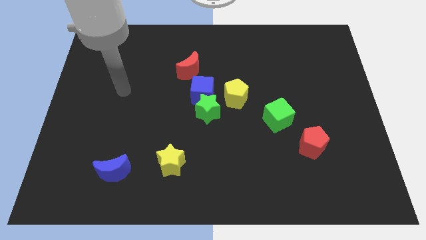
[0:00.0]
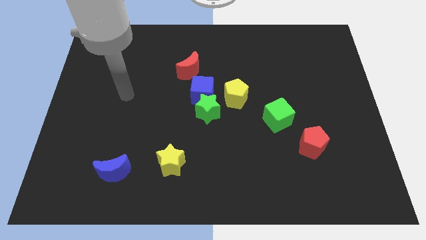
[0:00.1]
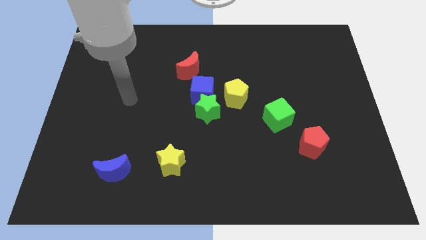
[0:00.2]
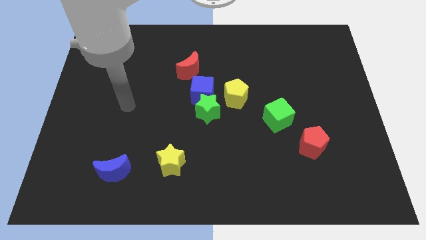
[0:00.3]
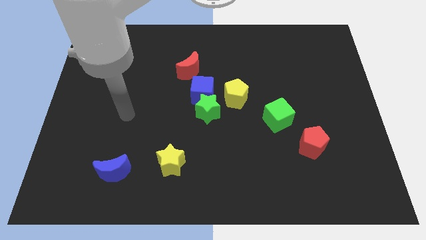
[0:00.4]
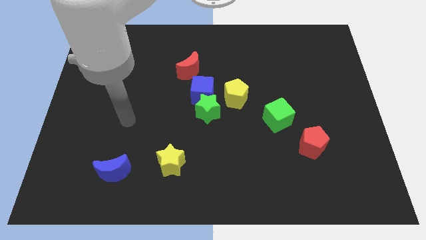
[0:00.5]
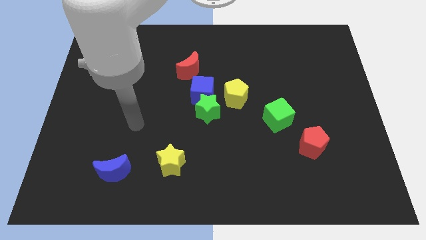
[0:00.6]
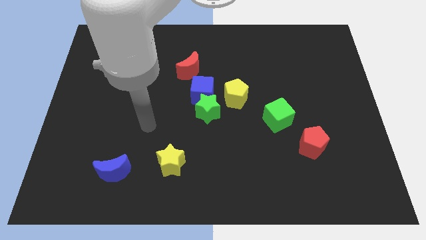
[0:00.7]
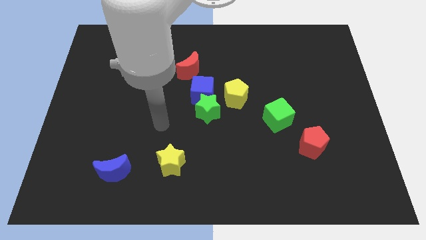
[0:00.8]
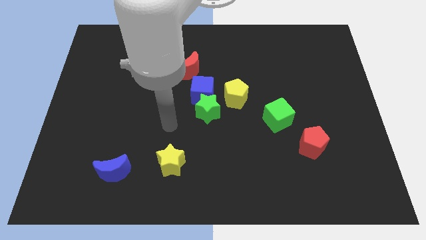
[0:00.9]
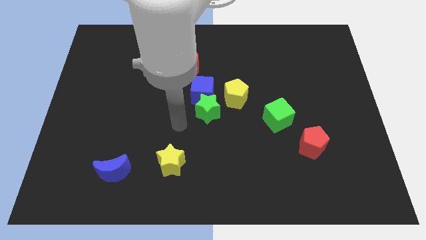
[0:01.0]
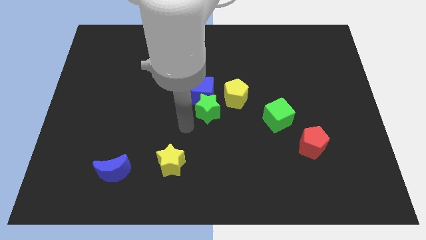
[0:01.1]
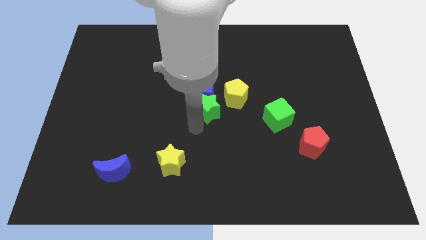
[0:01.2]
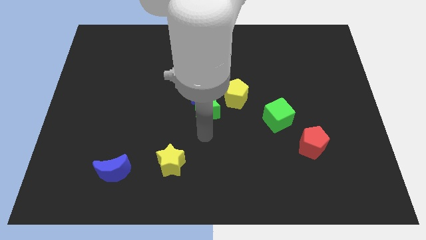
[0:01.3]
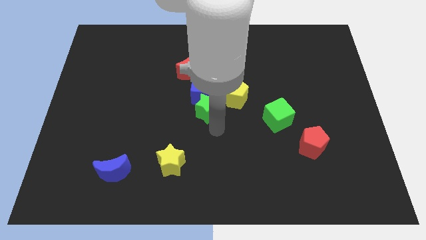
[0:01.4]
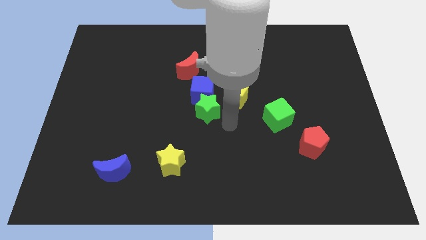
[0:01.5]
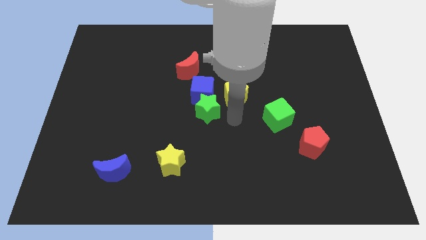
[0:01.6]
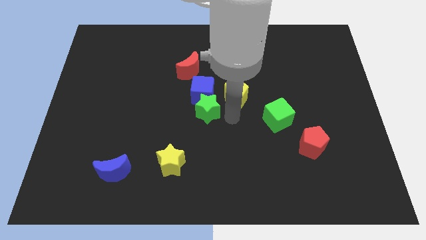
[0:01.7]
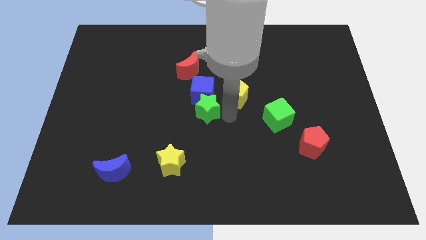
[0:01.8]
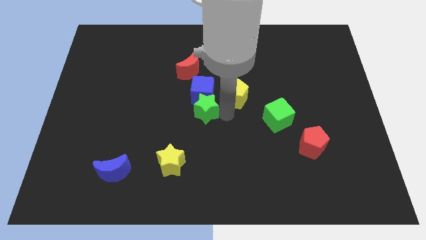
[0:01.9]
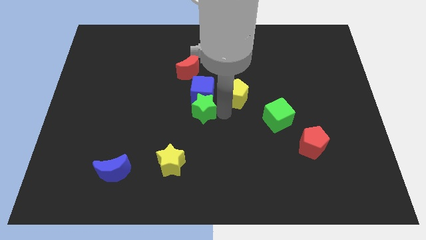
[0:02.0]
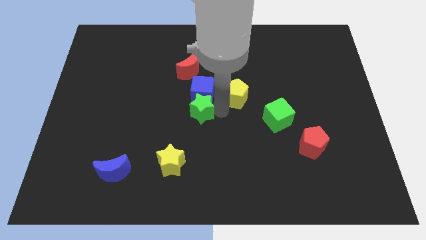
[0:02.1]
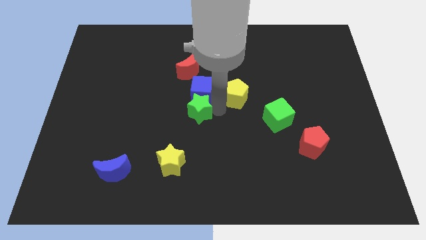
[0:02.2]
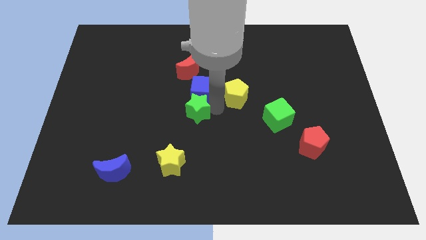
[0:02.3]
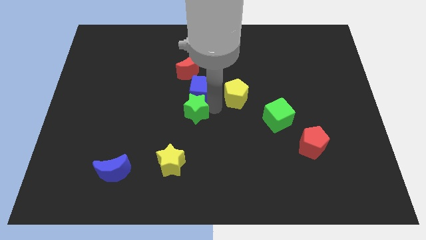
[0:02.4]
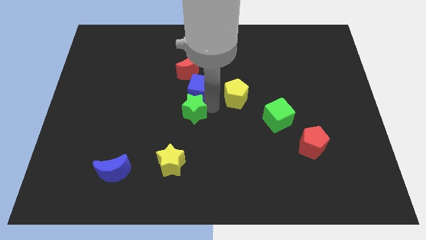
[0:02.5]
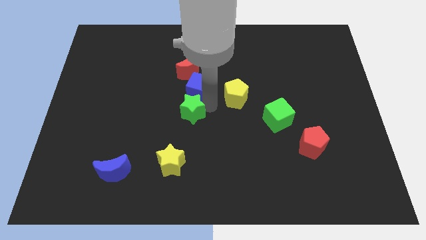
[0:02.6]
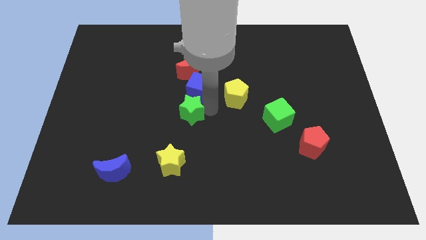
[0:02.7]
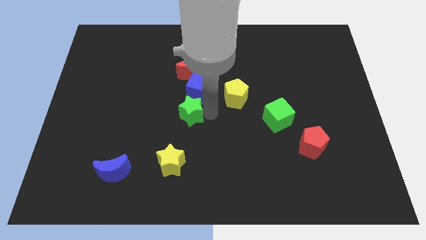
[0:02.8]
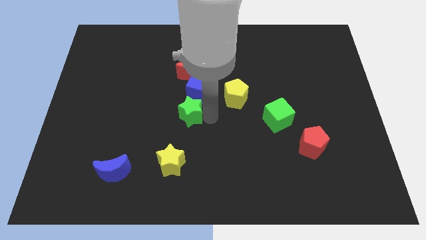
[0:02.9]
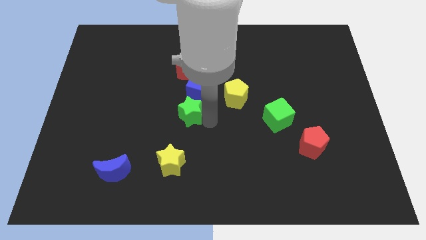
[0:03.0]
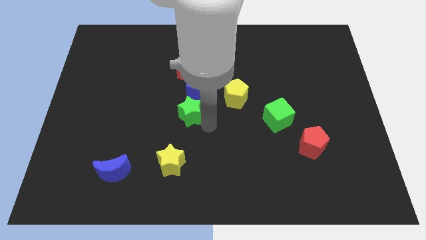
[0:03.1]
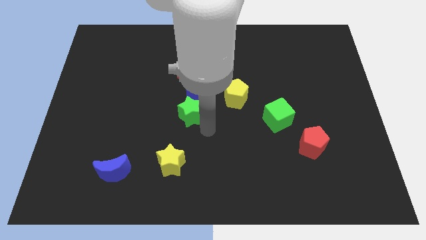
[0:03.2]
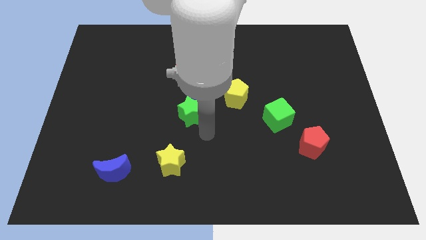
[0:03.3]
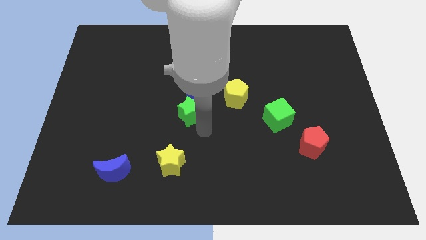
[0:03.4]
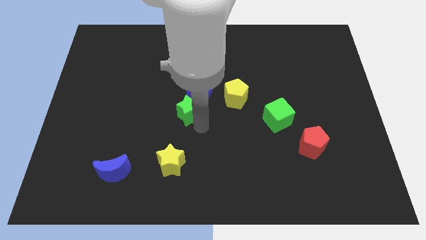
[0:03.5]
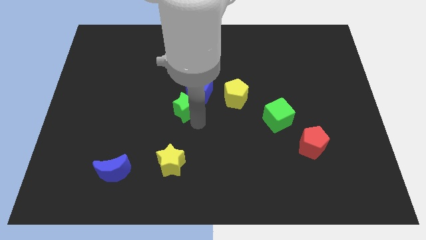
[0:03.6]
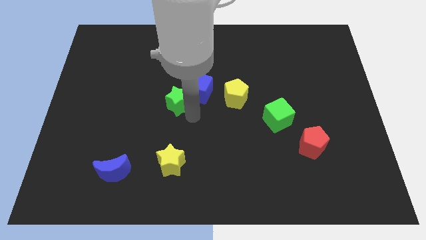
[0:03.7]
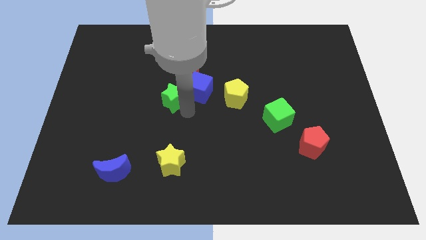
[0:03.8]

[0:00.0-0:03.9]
slightly slide the green star diagonally upwards and left

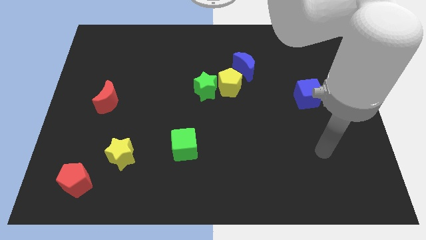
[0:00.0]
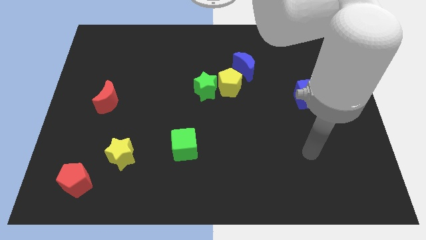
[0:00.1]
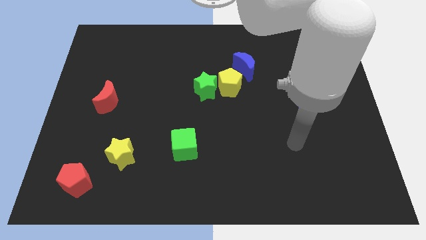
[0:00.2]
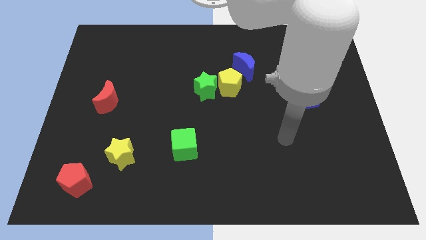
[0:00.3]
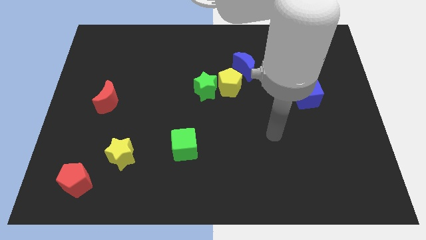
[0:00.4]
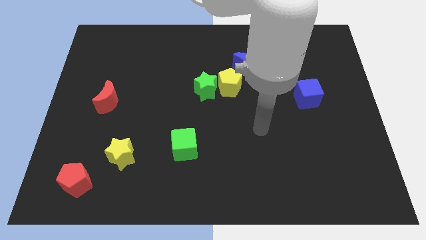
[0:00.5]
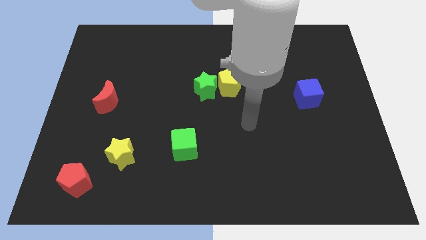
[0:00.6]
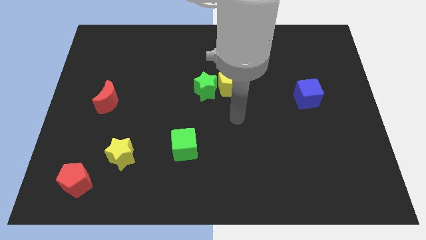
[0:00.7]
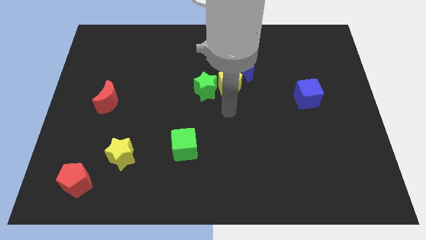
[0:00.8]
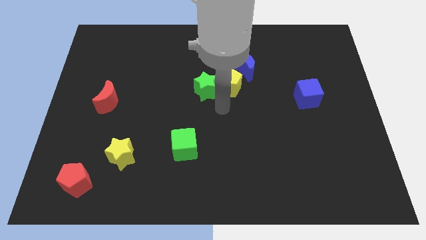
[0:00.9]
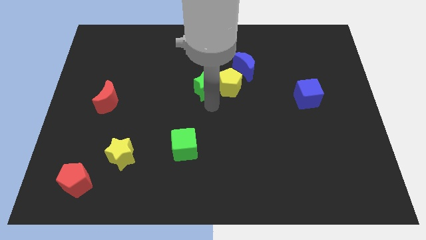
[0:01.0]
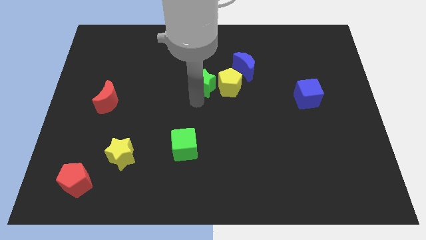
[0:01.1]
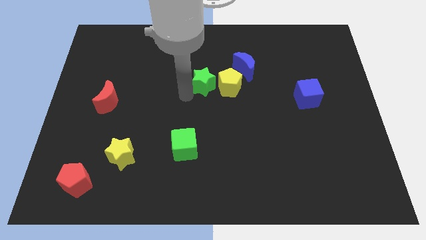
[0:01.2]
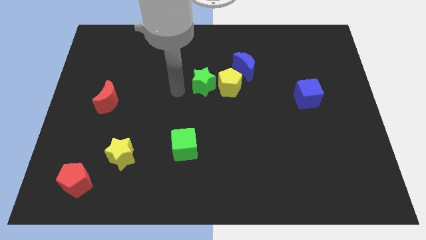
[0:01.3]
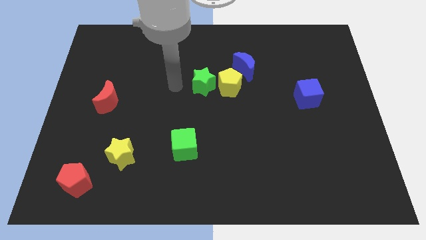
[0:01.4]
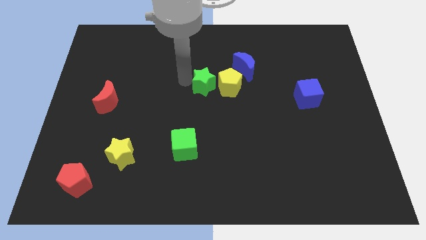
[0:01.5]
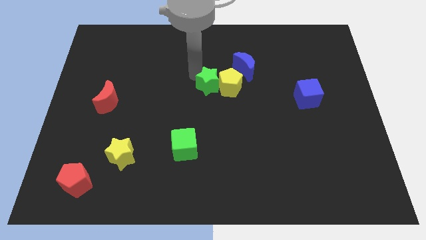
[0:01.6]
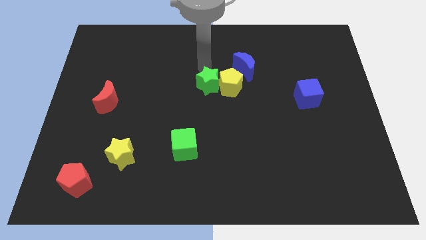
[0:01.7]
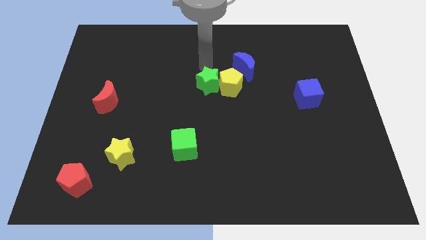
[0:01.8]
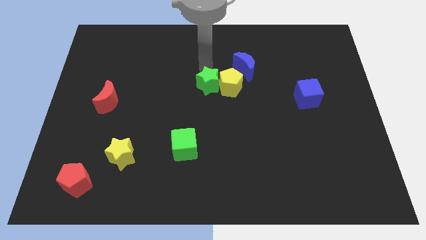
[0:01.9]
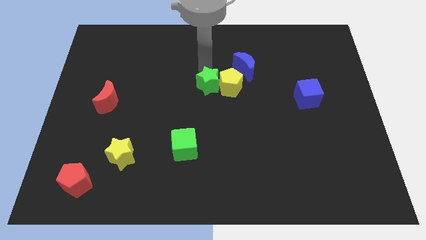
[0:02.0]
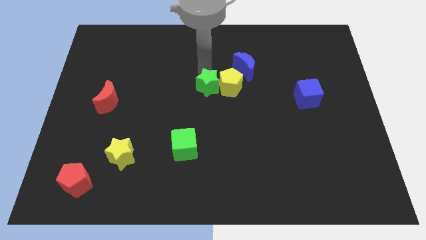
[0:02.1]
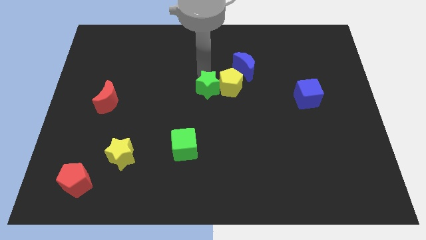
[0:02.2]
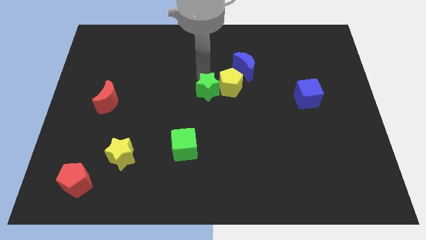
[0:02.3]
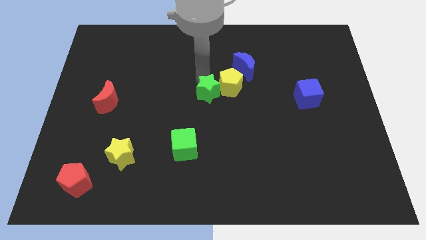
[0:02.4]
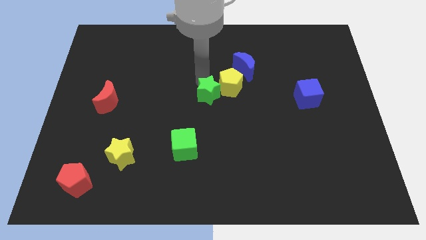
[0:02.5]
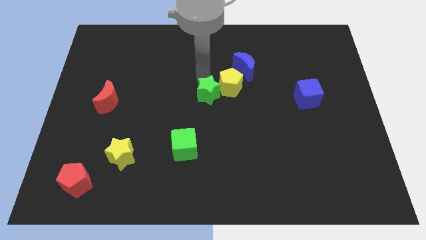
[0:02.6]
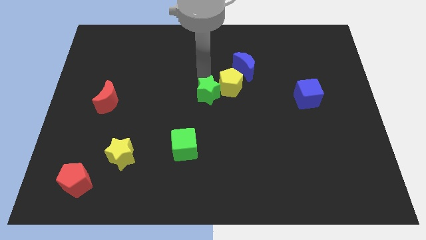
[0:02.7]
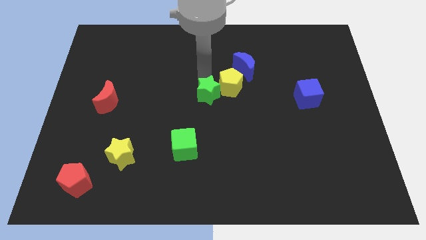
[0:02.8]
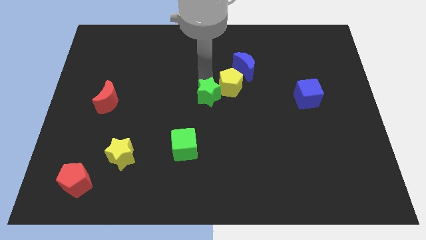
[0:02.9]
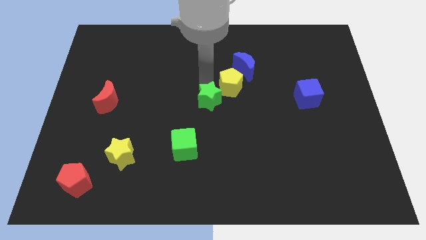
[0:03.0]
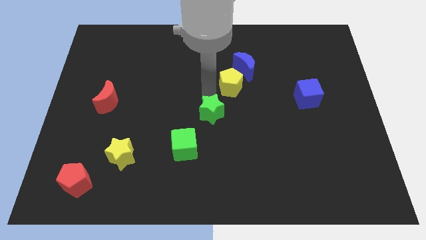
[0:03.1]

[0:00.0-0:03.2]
slide the green star a little bit down

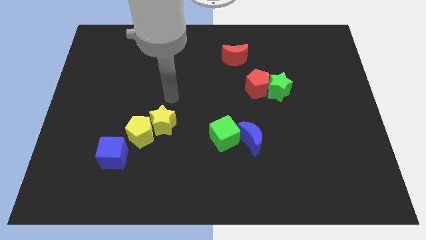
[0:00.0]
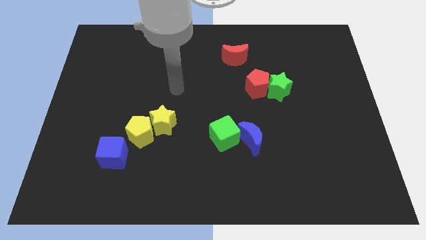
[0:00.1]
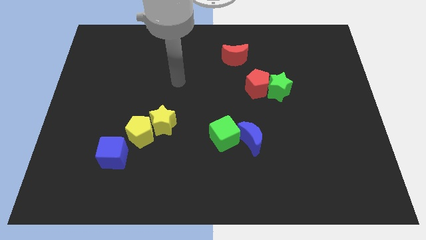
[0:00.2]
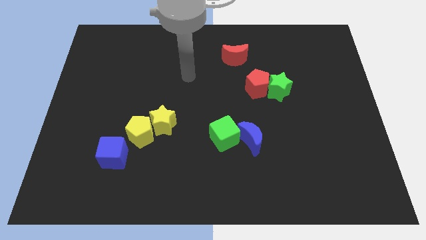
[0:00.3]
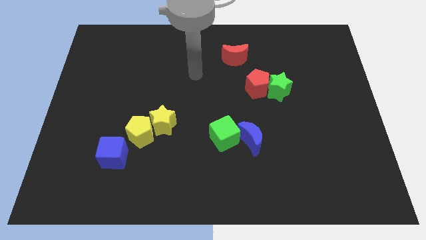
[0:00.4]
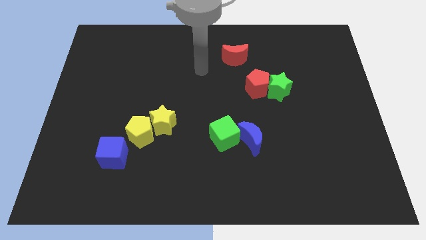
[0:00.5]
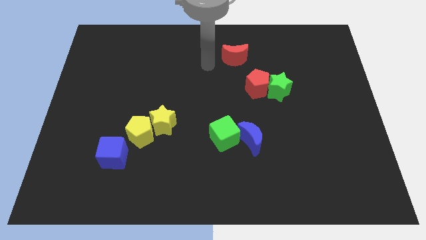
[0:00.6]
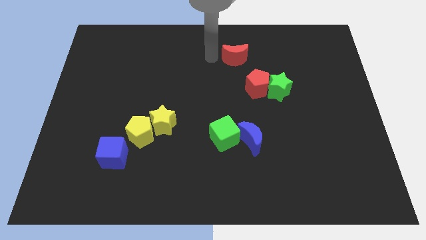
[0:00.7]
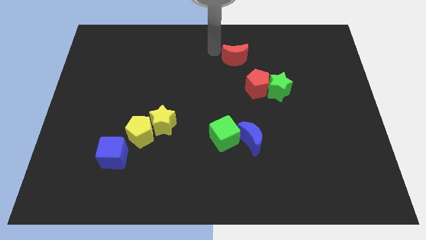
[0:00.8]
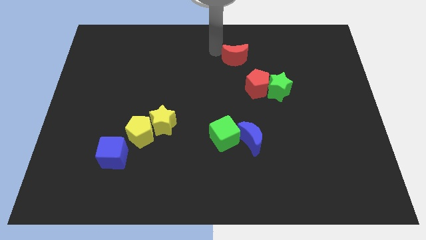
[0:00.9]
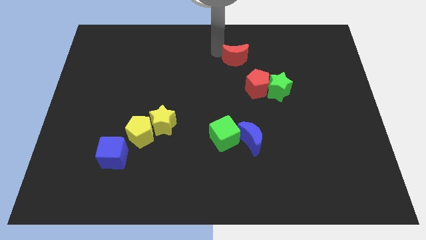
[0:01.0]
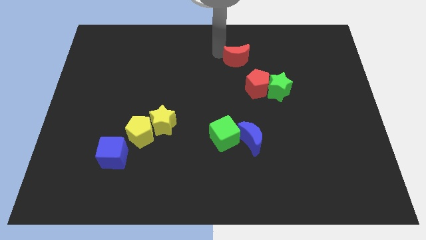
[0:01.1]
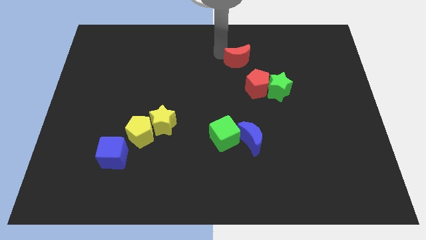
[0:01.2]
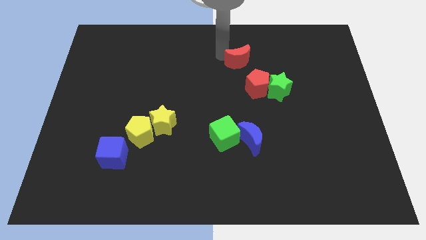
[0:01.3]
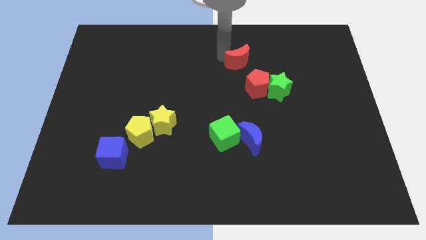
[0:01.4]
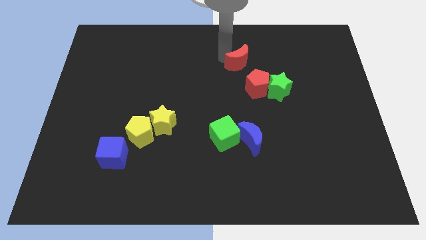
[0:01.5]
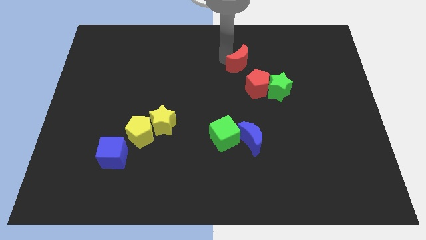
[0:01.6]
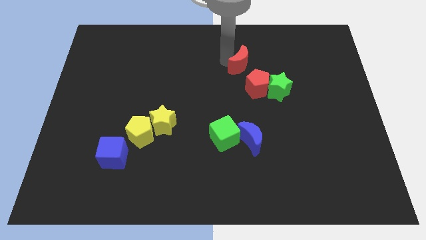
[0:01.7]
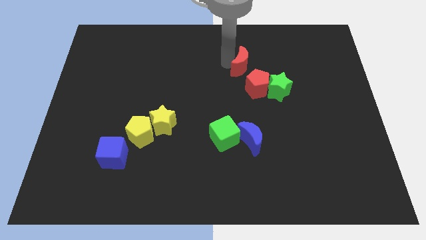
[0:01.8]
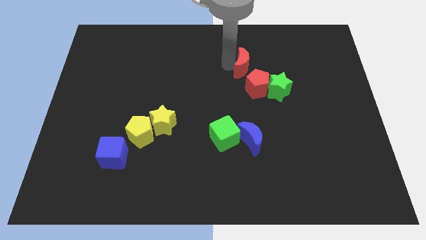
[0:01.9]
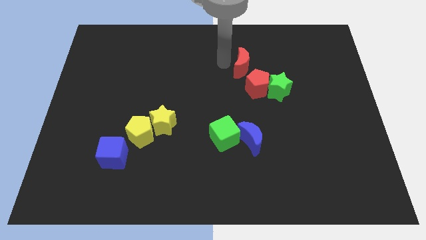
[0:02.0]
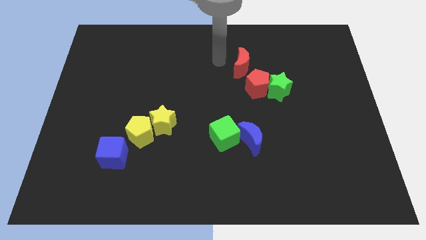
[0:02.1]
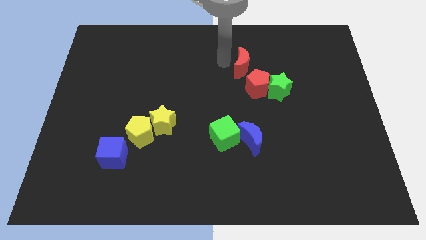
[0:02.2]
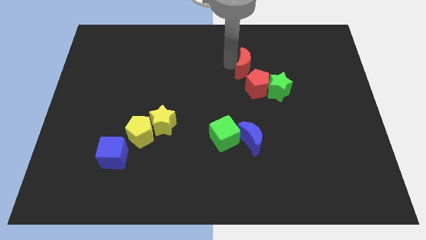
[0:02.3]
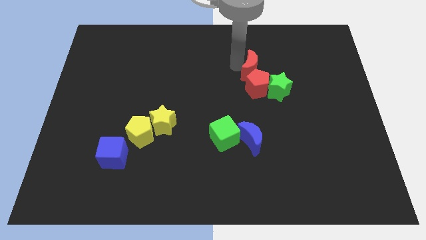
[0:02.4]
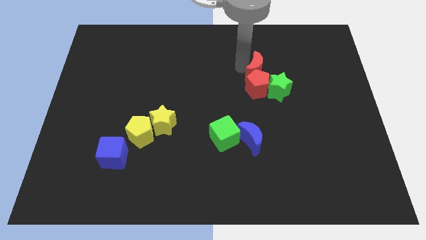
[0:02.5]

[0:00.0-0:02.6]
push the red moon a bit down and right
